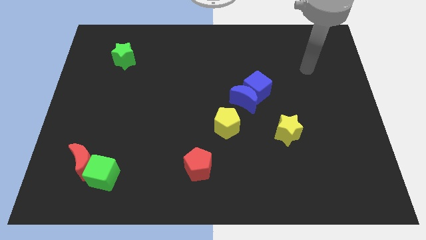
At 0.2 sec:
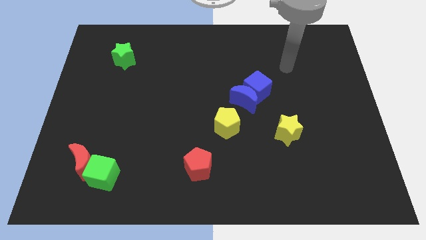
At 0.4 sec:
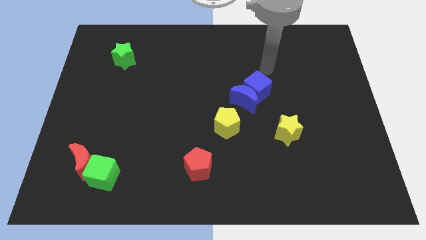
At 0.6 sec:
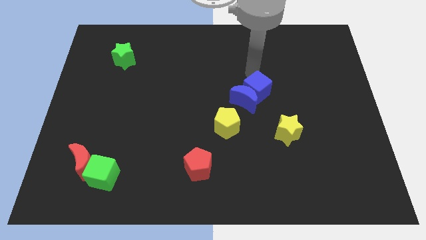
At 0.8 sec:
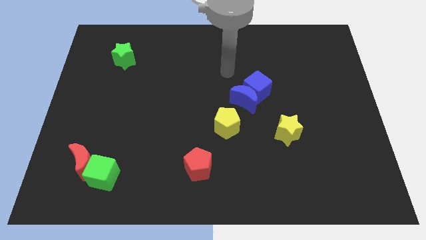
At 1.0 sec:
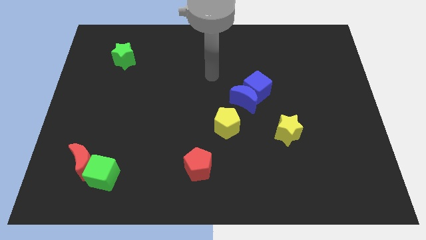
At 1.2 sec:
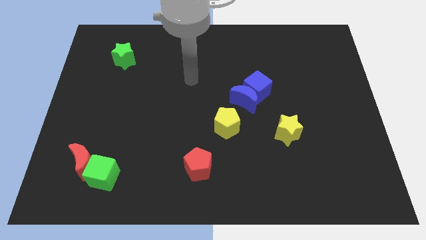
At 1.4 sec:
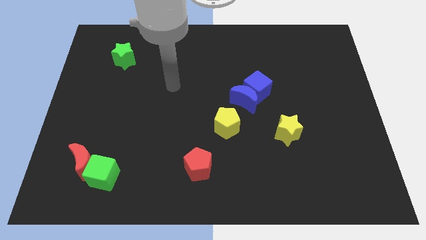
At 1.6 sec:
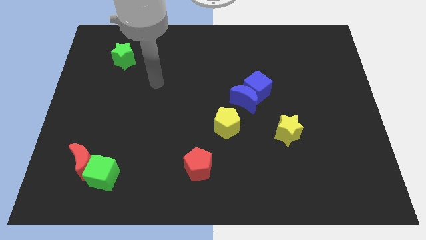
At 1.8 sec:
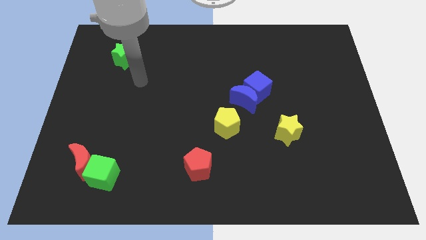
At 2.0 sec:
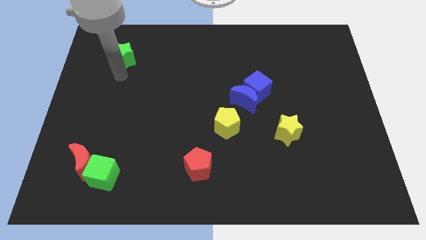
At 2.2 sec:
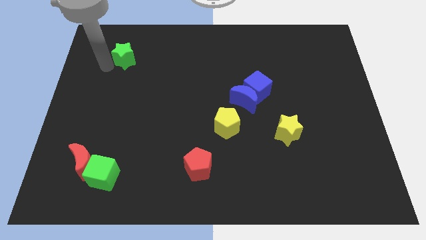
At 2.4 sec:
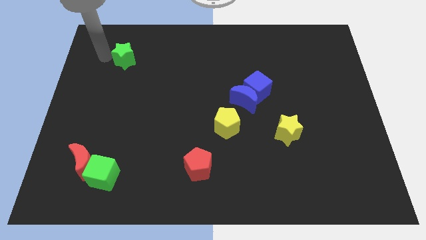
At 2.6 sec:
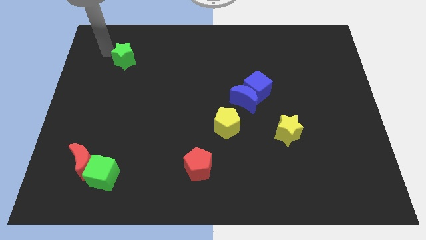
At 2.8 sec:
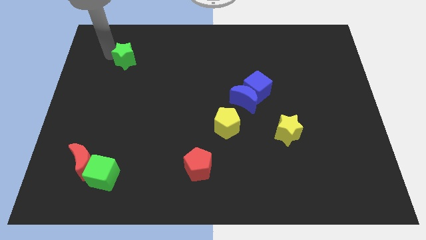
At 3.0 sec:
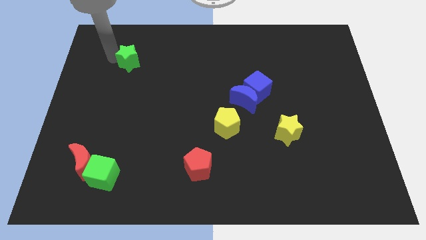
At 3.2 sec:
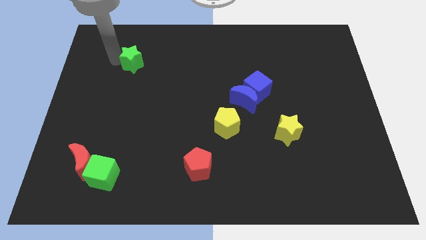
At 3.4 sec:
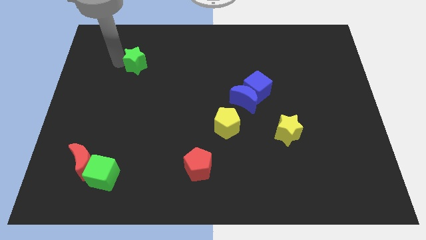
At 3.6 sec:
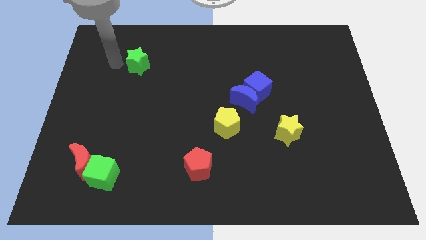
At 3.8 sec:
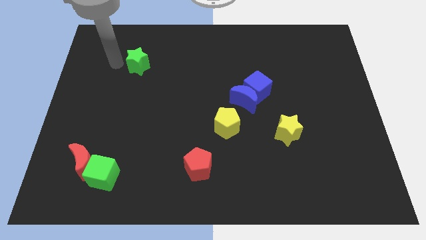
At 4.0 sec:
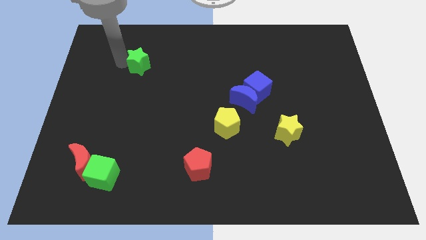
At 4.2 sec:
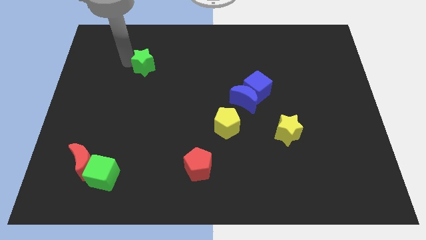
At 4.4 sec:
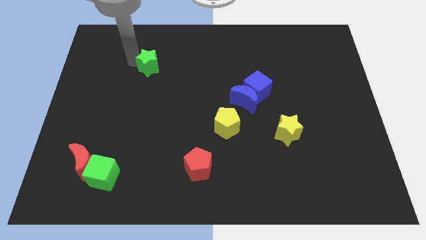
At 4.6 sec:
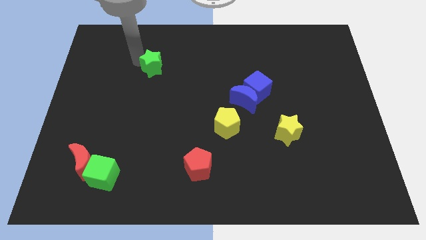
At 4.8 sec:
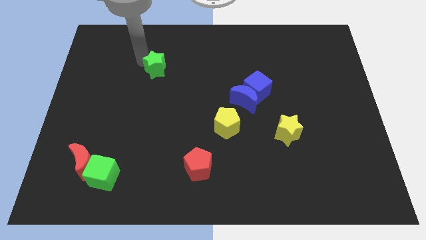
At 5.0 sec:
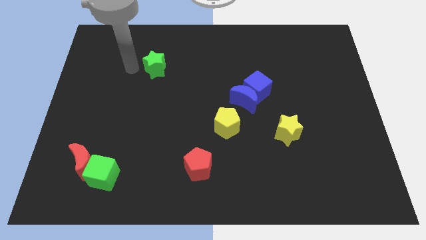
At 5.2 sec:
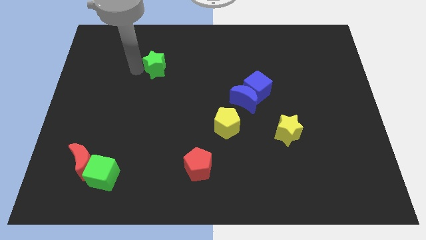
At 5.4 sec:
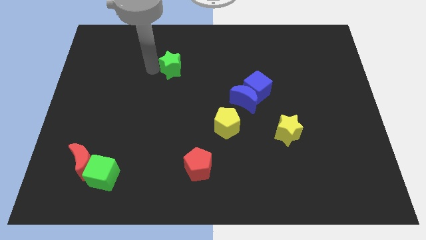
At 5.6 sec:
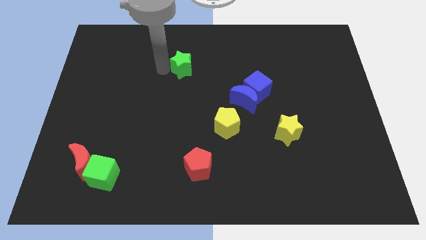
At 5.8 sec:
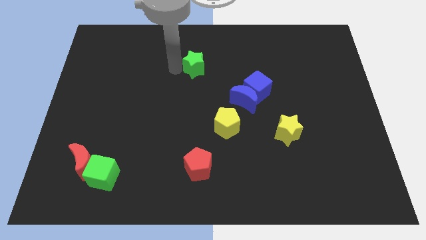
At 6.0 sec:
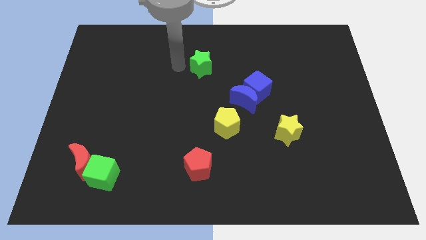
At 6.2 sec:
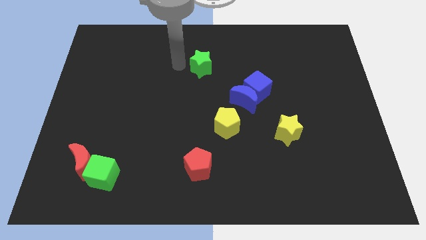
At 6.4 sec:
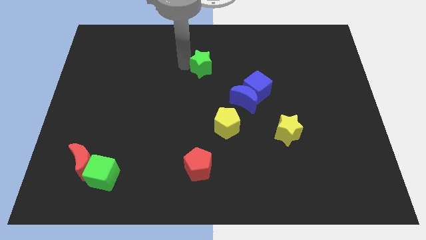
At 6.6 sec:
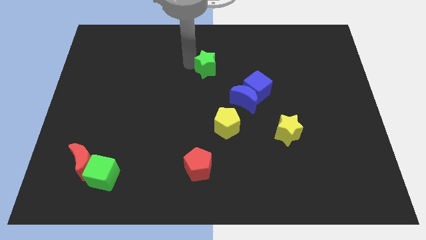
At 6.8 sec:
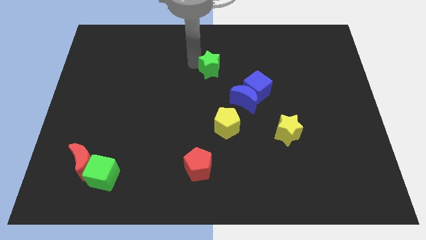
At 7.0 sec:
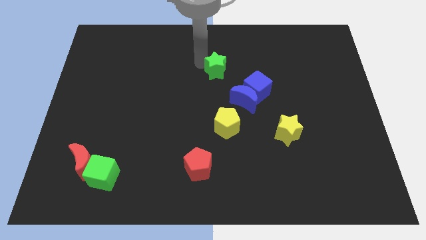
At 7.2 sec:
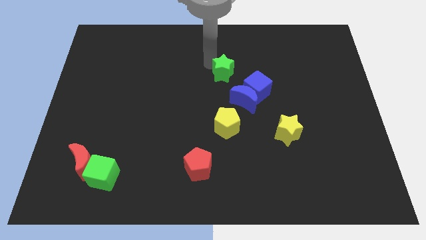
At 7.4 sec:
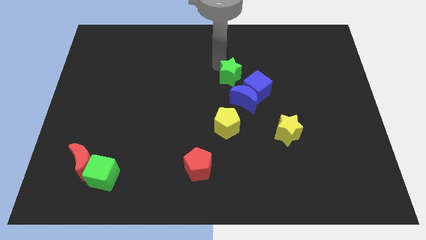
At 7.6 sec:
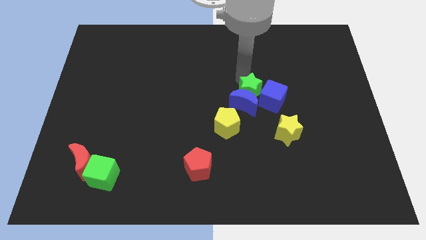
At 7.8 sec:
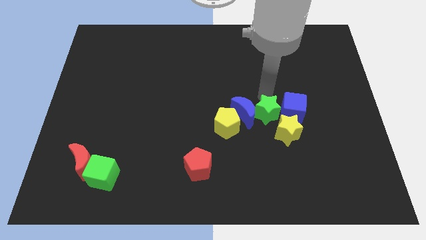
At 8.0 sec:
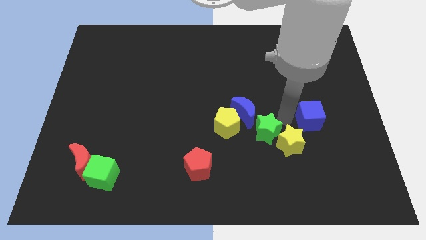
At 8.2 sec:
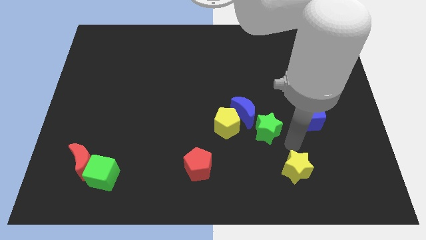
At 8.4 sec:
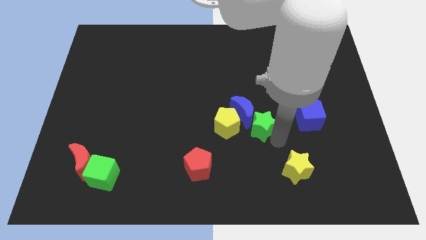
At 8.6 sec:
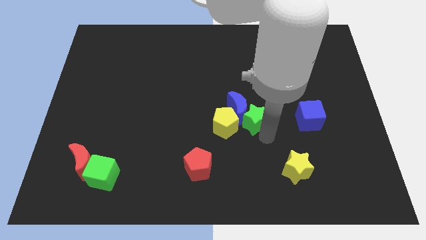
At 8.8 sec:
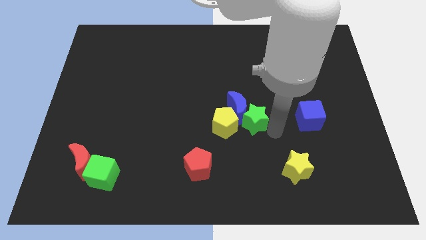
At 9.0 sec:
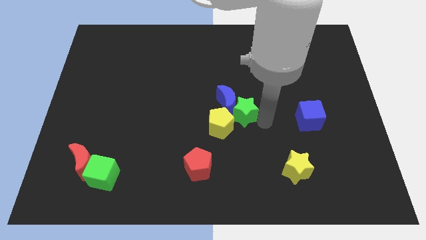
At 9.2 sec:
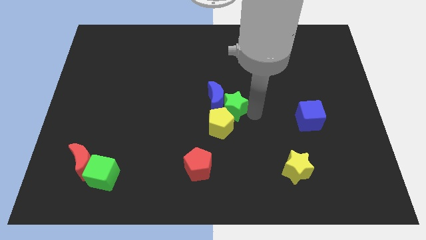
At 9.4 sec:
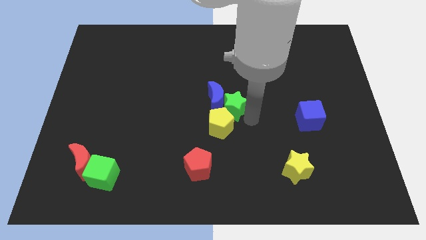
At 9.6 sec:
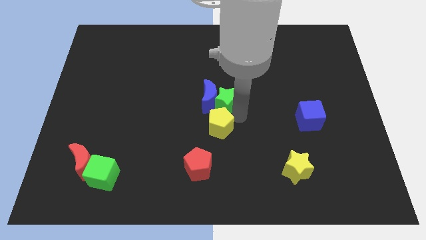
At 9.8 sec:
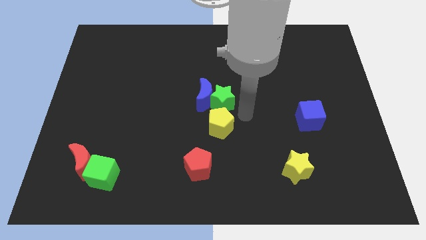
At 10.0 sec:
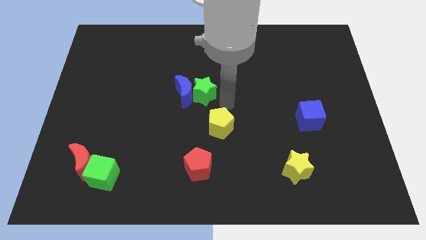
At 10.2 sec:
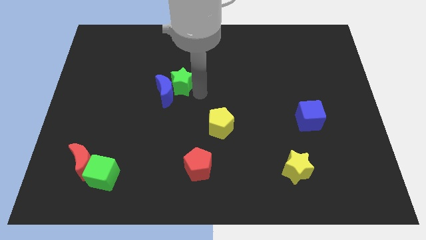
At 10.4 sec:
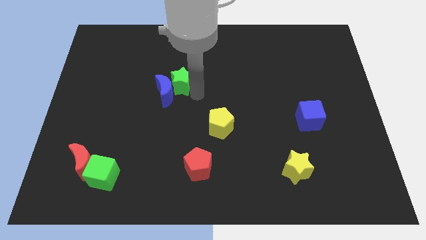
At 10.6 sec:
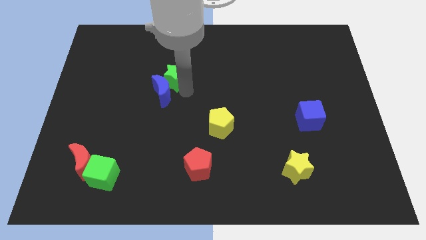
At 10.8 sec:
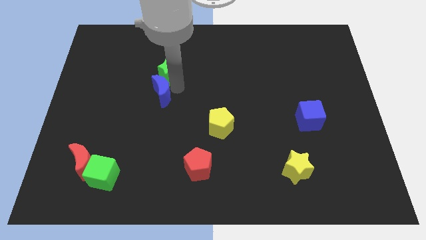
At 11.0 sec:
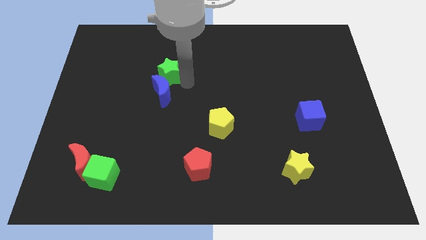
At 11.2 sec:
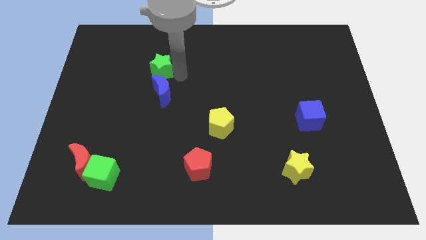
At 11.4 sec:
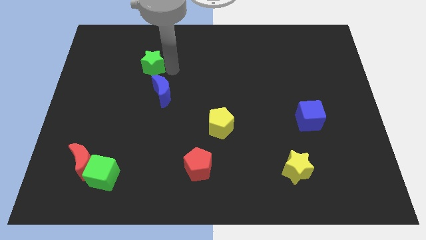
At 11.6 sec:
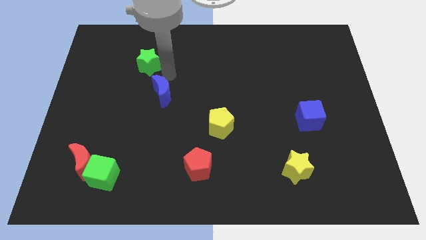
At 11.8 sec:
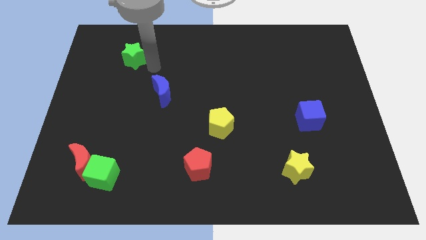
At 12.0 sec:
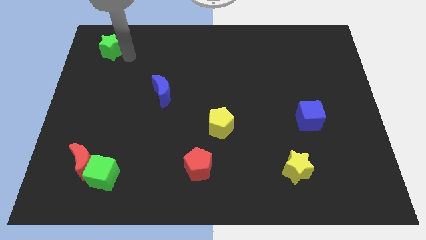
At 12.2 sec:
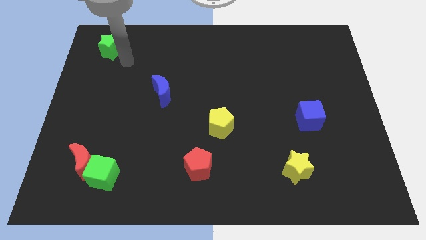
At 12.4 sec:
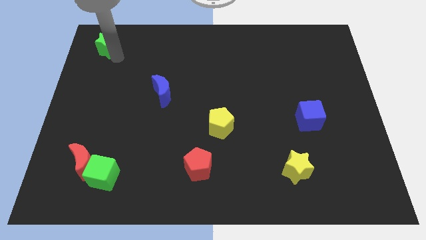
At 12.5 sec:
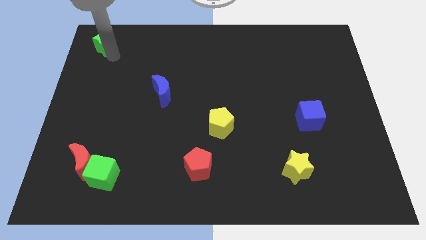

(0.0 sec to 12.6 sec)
put the green star to the top left

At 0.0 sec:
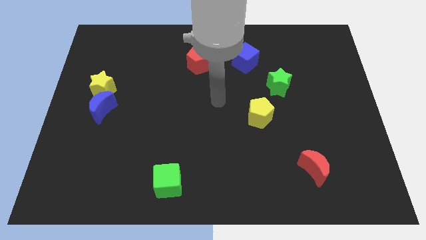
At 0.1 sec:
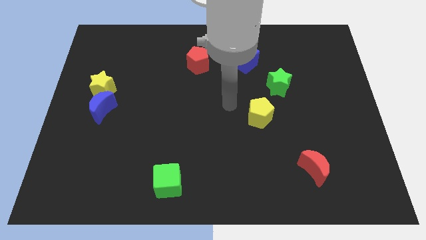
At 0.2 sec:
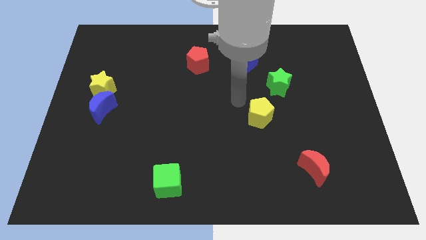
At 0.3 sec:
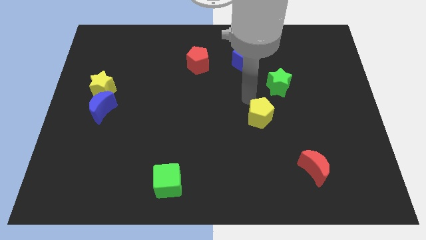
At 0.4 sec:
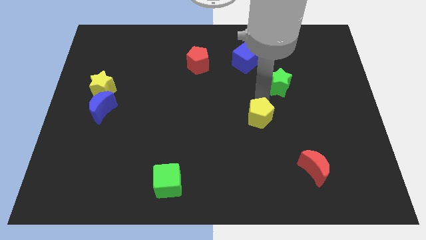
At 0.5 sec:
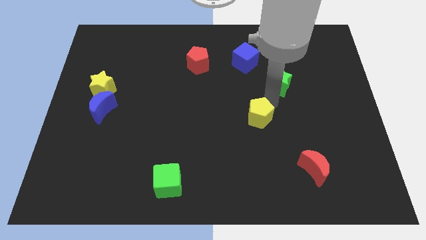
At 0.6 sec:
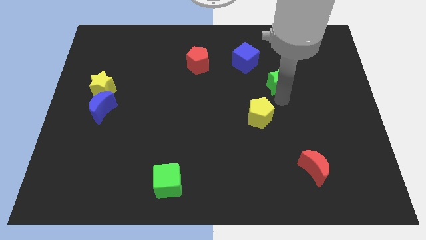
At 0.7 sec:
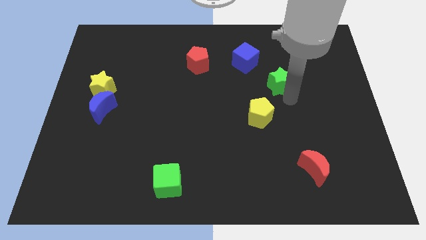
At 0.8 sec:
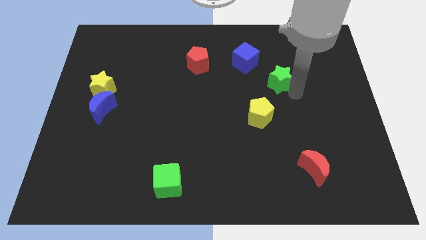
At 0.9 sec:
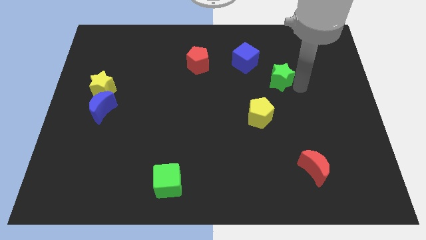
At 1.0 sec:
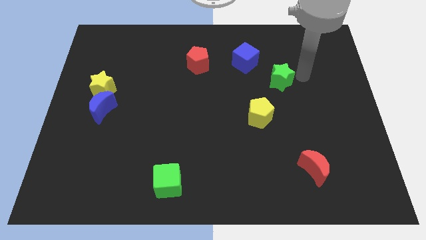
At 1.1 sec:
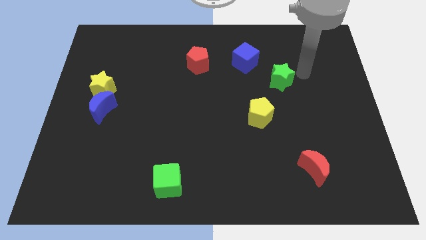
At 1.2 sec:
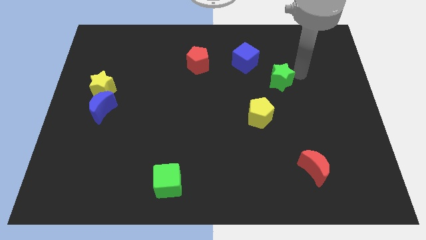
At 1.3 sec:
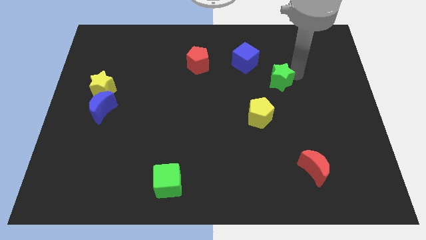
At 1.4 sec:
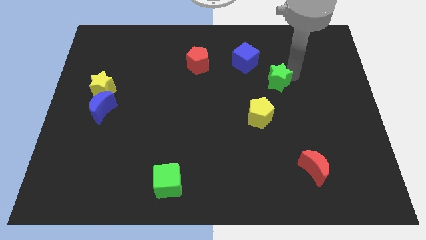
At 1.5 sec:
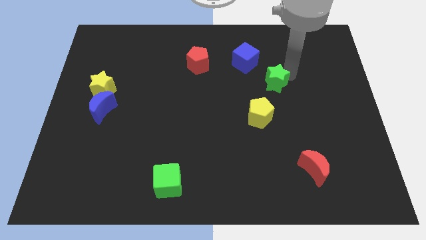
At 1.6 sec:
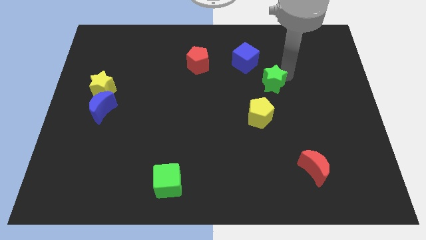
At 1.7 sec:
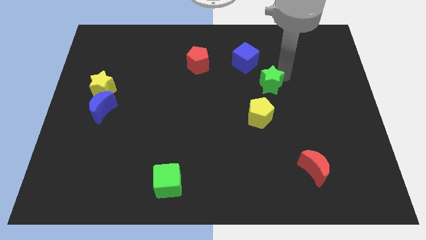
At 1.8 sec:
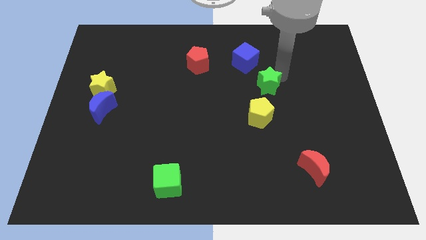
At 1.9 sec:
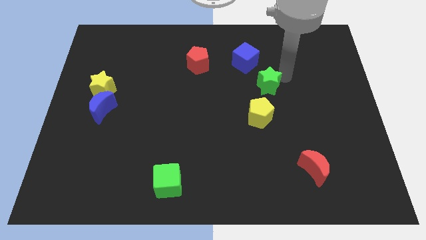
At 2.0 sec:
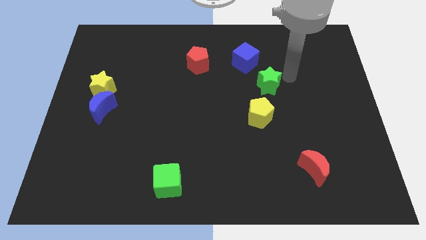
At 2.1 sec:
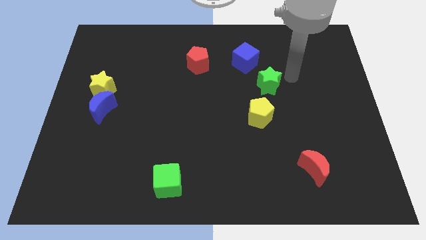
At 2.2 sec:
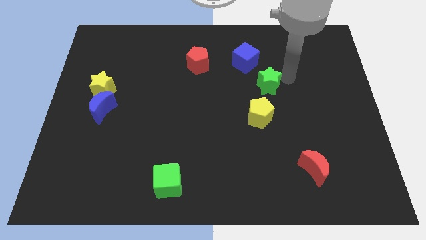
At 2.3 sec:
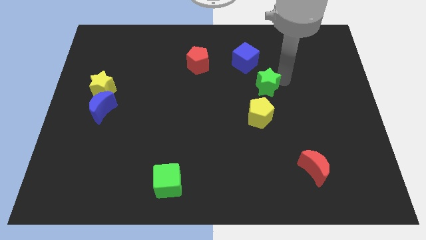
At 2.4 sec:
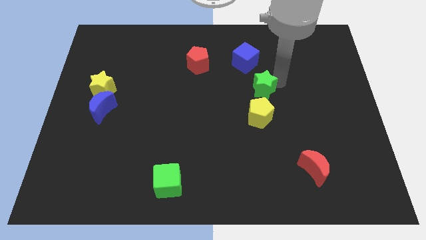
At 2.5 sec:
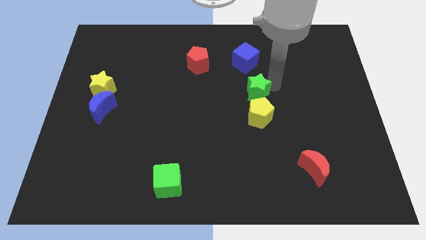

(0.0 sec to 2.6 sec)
move the green star to the middle
